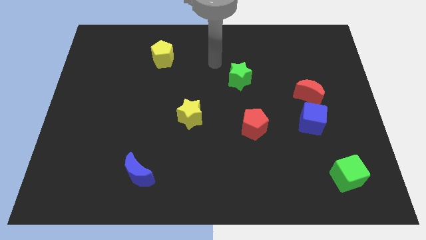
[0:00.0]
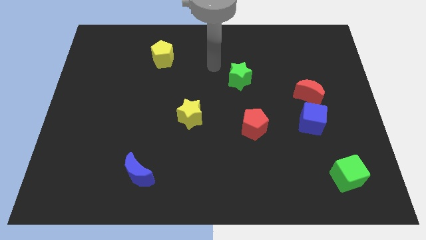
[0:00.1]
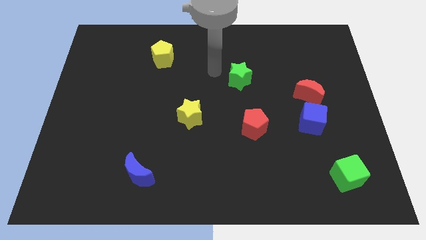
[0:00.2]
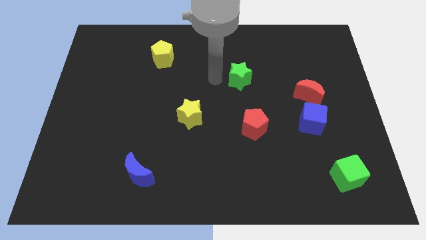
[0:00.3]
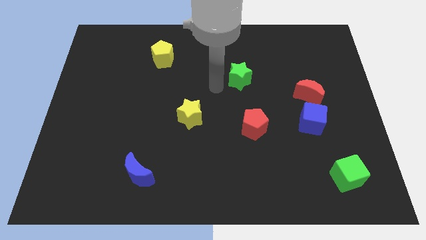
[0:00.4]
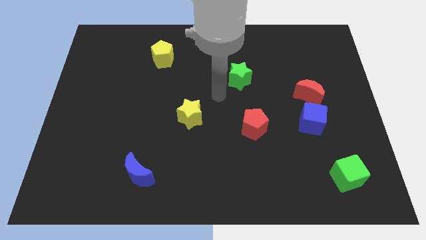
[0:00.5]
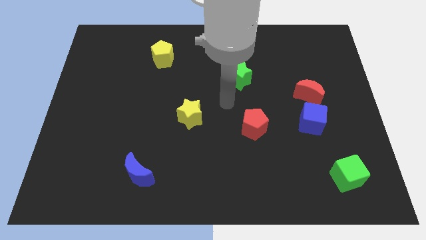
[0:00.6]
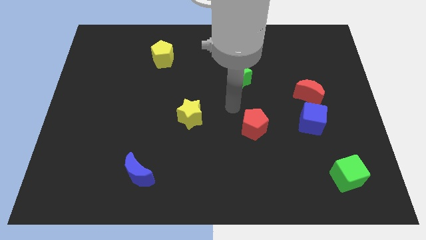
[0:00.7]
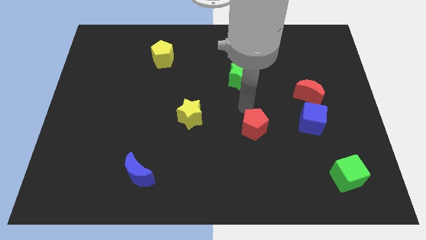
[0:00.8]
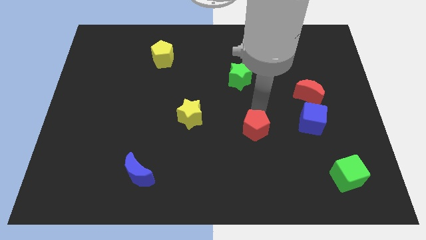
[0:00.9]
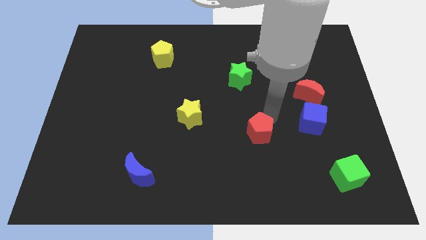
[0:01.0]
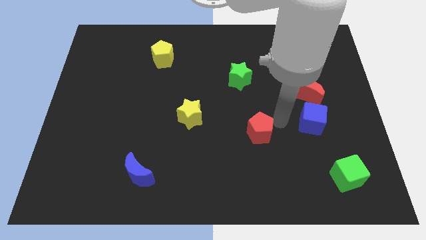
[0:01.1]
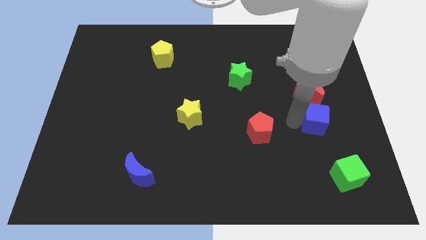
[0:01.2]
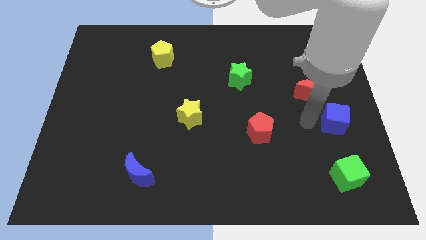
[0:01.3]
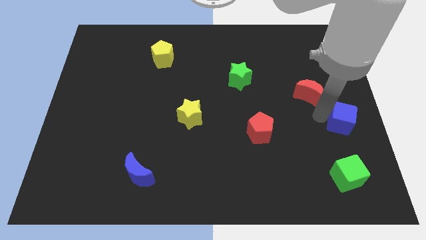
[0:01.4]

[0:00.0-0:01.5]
pull the red moon apart from the blue cube

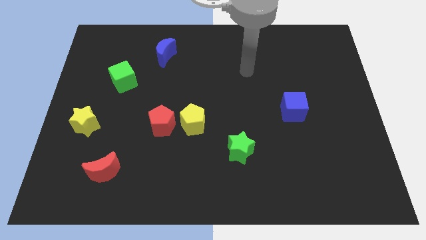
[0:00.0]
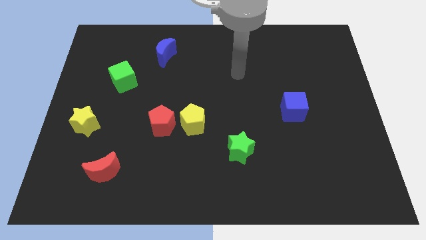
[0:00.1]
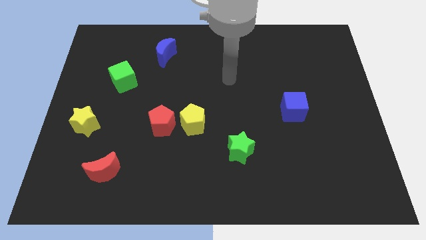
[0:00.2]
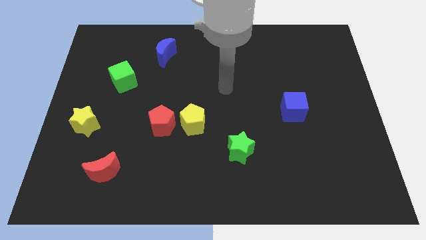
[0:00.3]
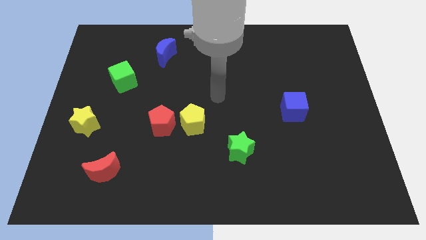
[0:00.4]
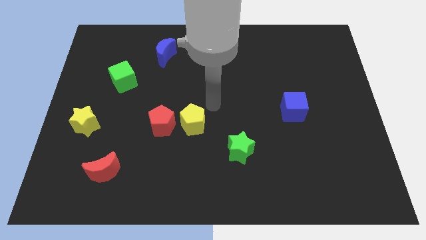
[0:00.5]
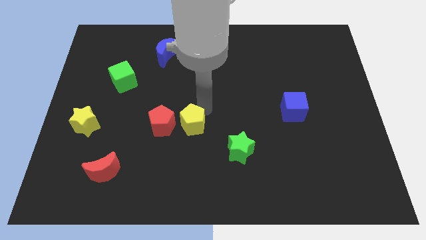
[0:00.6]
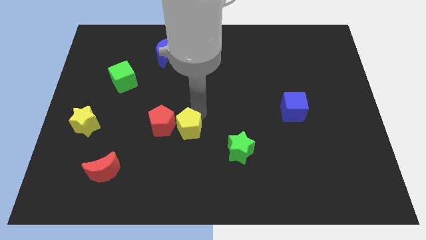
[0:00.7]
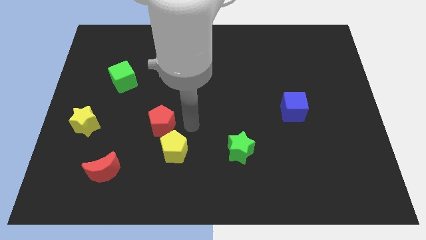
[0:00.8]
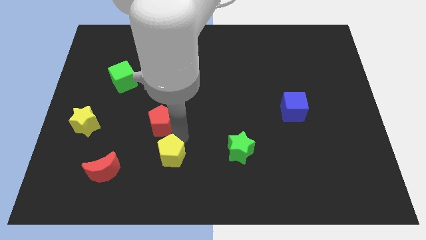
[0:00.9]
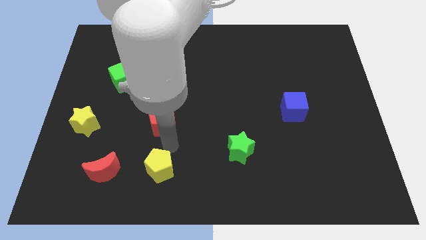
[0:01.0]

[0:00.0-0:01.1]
pull the red pentagon apart from the yellow pentagon

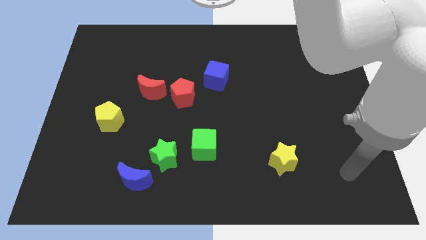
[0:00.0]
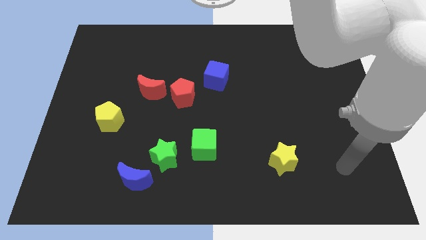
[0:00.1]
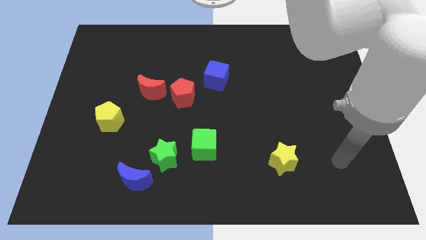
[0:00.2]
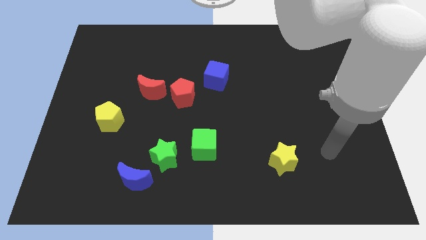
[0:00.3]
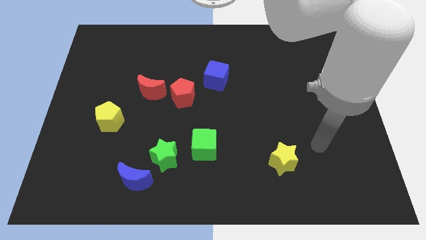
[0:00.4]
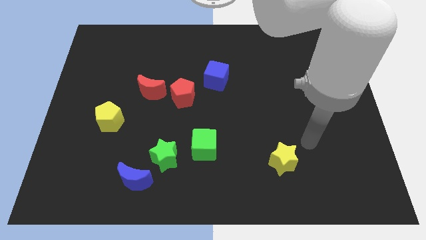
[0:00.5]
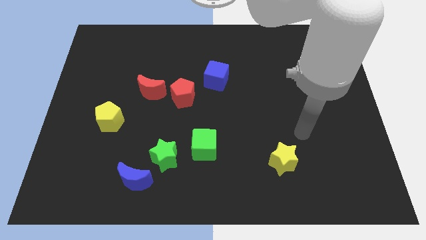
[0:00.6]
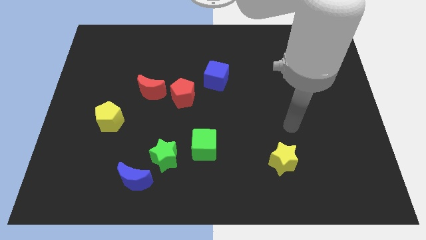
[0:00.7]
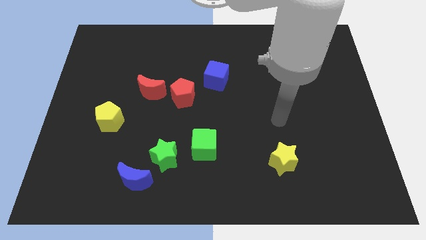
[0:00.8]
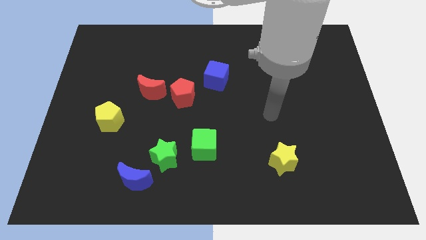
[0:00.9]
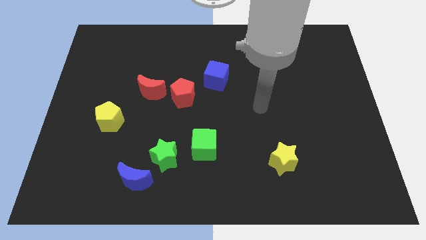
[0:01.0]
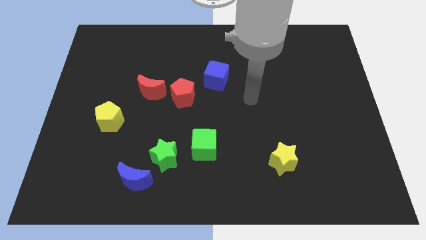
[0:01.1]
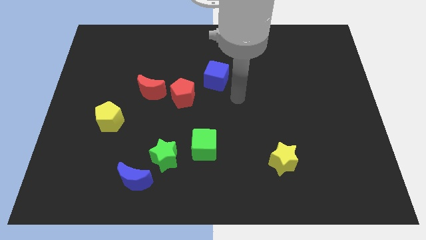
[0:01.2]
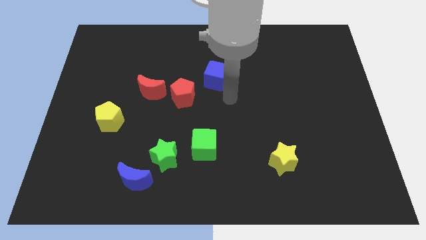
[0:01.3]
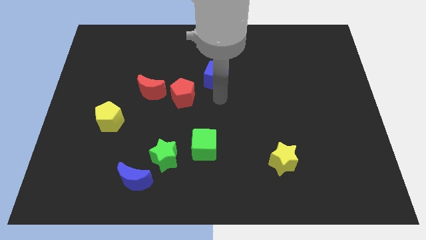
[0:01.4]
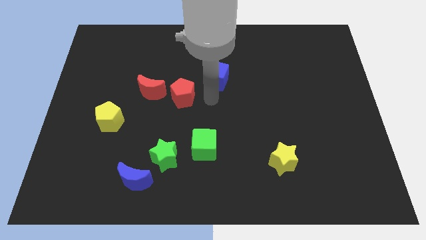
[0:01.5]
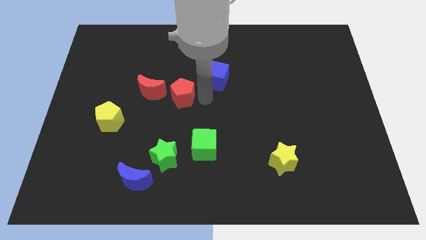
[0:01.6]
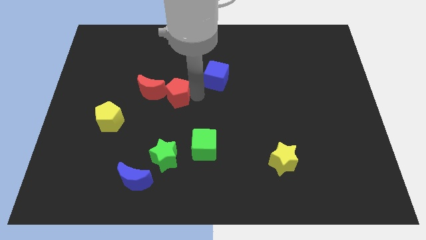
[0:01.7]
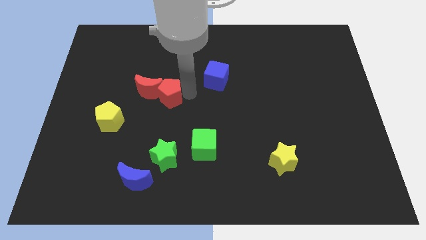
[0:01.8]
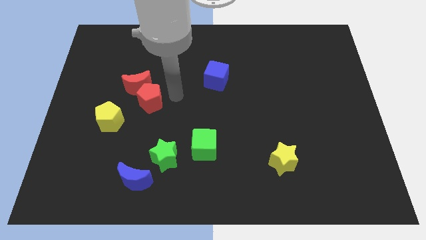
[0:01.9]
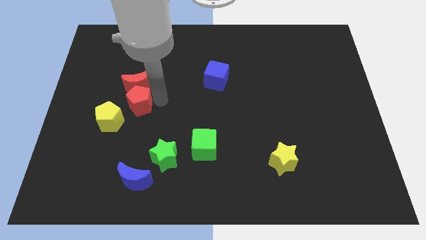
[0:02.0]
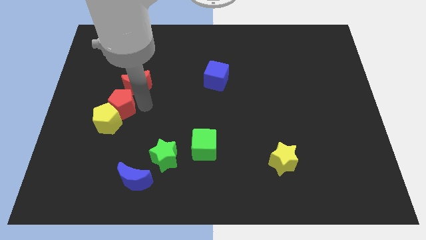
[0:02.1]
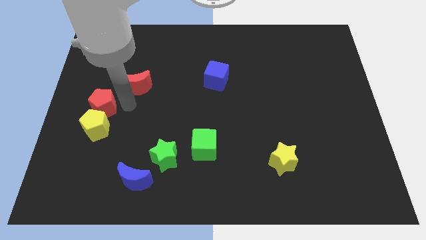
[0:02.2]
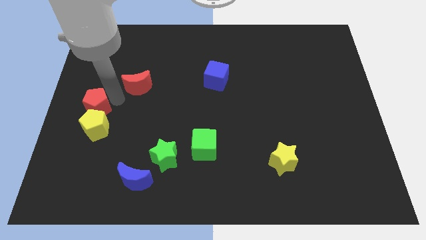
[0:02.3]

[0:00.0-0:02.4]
pull the red moon apart from the red pentagon

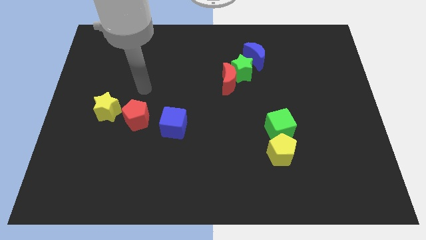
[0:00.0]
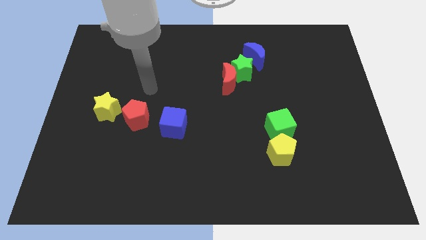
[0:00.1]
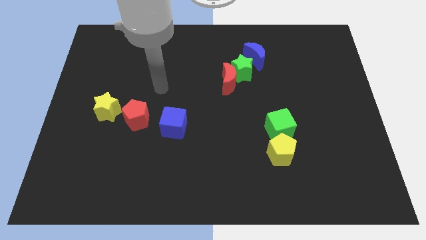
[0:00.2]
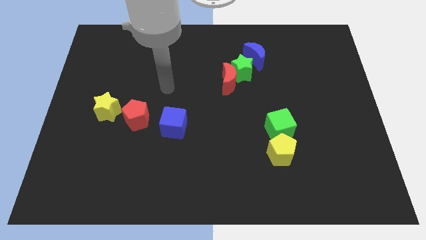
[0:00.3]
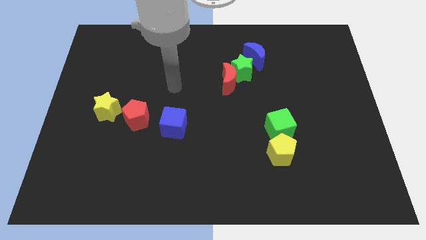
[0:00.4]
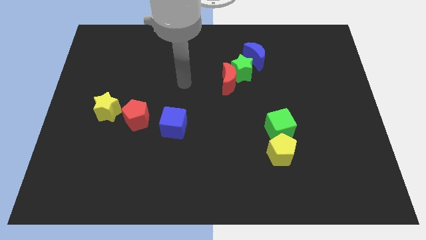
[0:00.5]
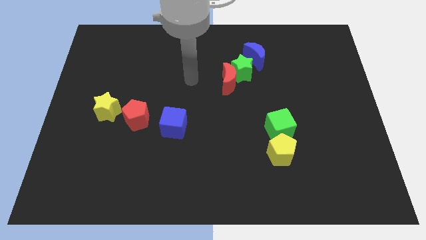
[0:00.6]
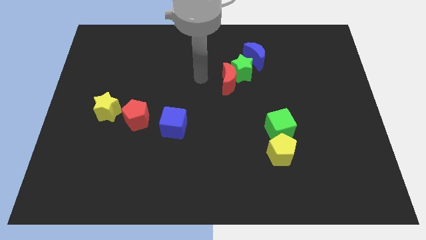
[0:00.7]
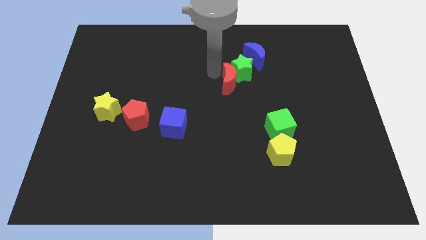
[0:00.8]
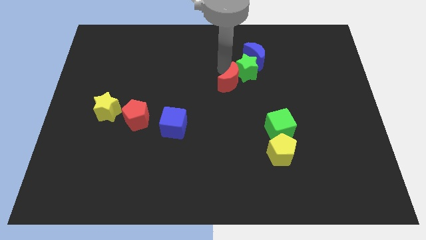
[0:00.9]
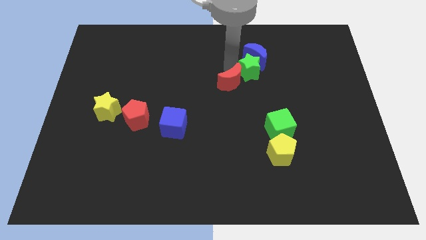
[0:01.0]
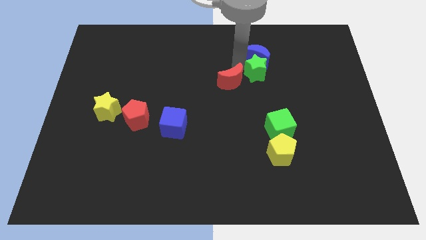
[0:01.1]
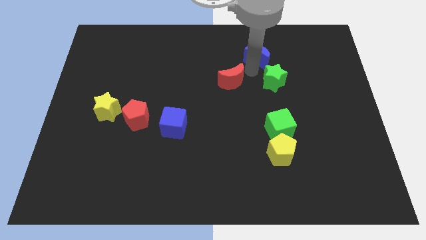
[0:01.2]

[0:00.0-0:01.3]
pull the red moon apart from the green star

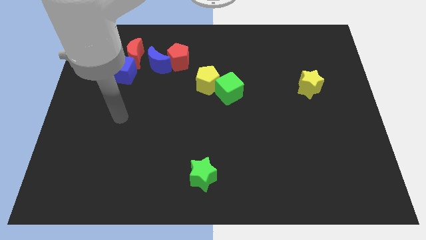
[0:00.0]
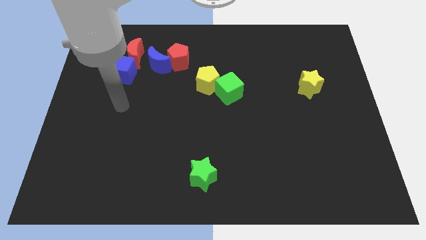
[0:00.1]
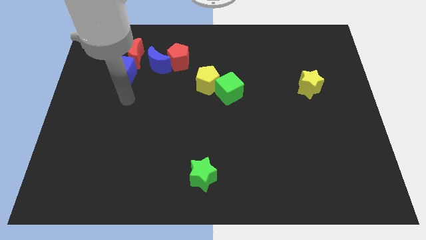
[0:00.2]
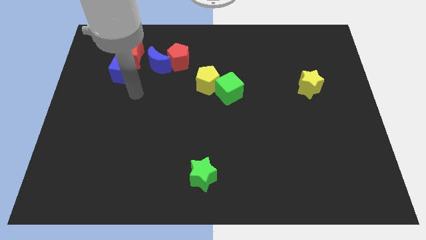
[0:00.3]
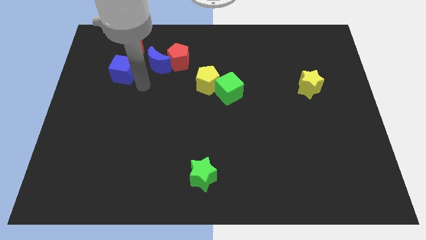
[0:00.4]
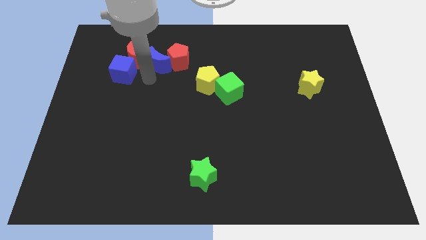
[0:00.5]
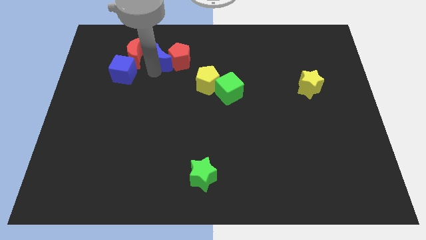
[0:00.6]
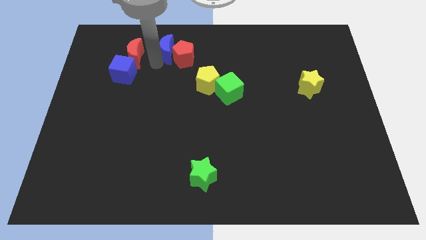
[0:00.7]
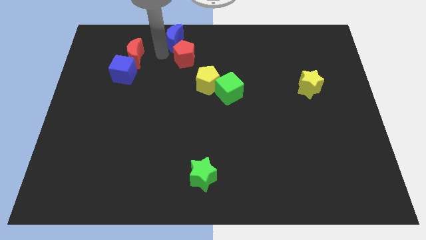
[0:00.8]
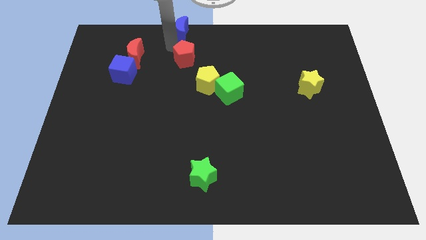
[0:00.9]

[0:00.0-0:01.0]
pull the red pentagon apart from the blue moon

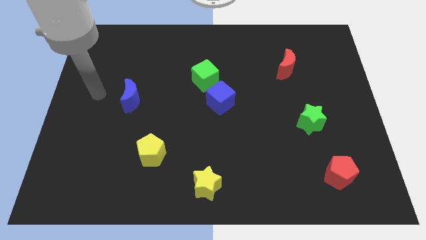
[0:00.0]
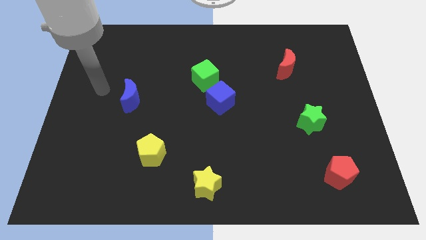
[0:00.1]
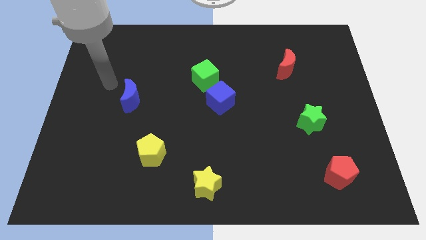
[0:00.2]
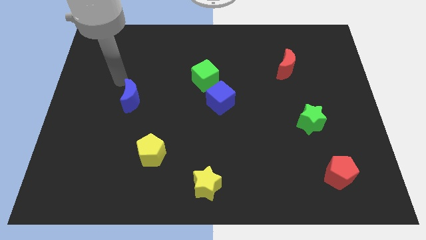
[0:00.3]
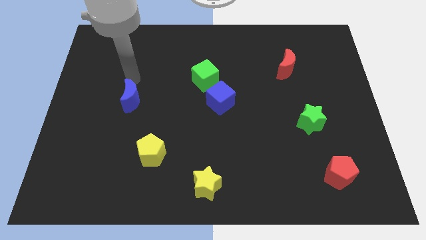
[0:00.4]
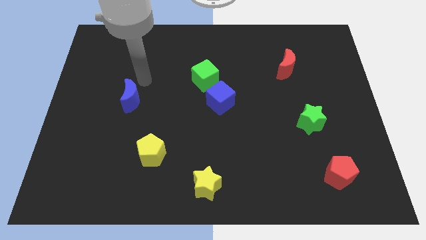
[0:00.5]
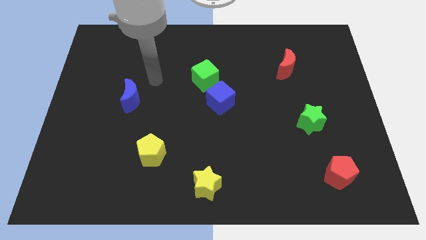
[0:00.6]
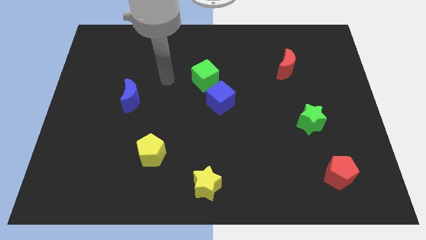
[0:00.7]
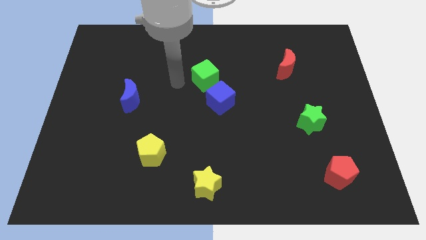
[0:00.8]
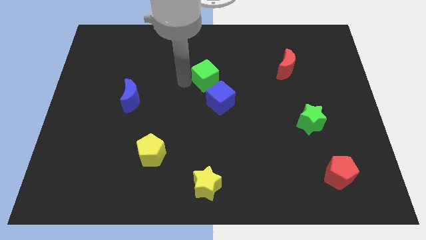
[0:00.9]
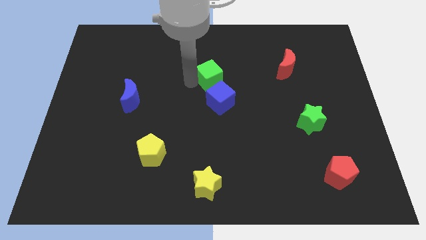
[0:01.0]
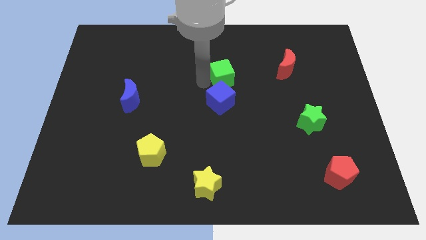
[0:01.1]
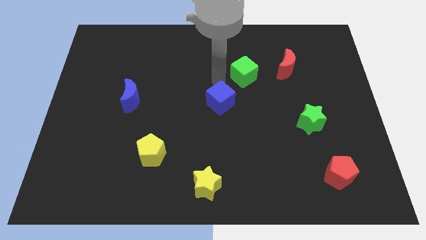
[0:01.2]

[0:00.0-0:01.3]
move the blue cube away from the green cube

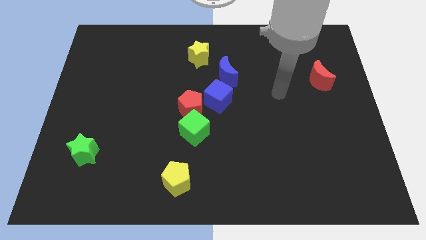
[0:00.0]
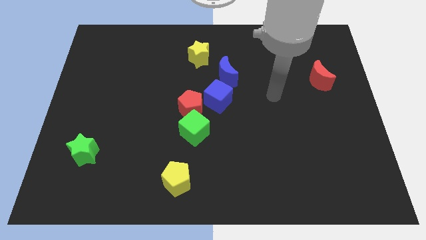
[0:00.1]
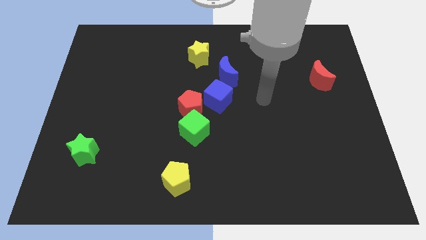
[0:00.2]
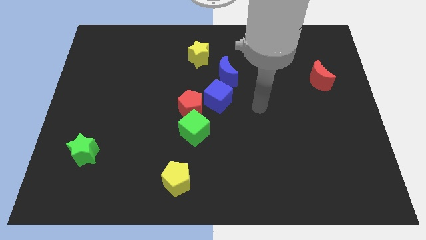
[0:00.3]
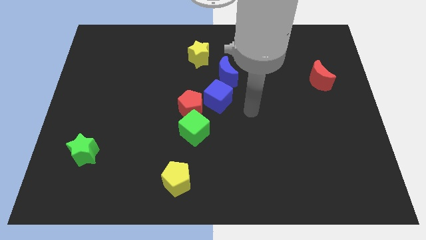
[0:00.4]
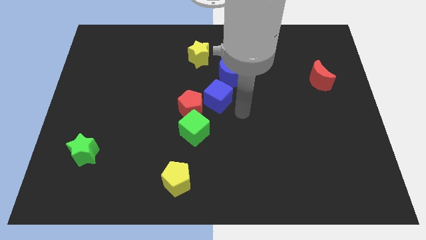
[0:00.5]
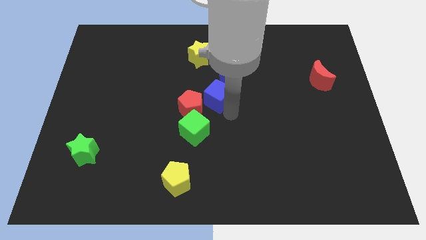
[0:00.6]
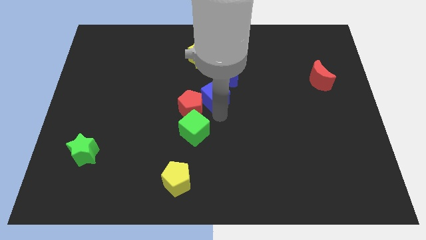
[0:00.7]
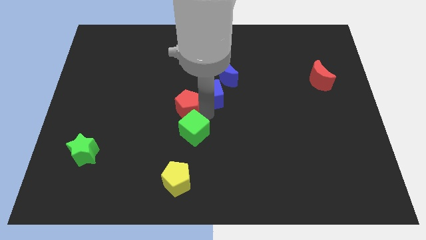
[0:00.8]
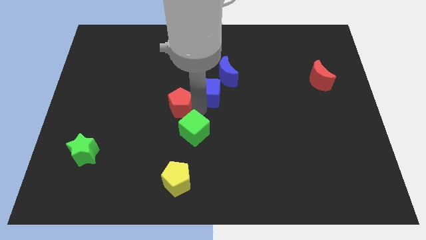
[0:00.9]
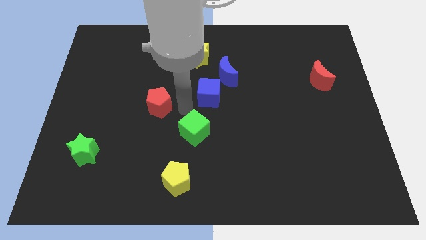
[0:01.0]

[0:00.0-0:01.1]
separate the green cube from the red pentagon
